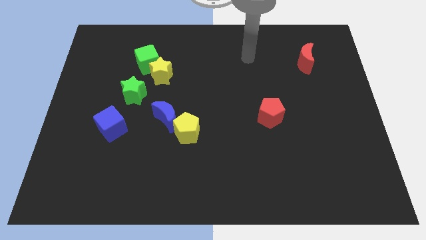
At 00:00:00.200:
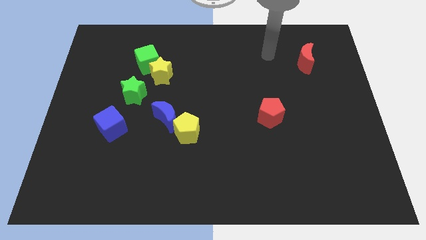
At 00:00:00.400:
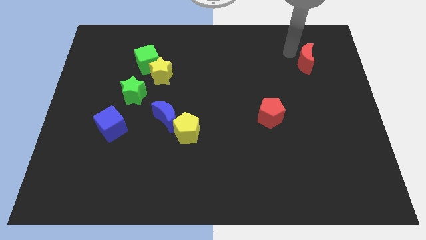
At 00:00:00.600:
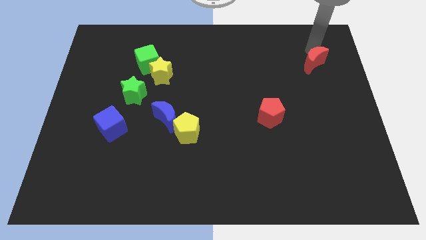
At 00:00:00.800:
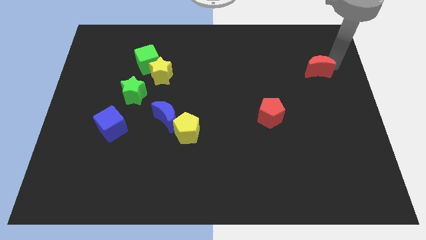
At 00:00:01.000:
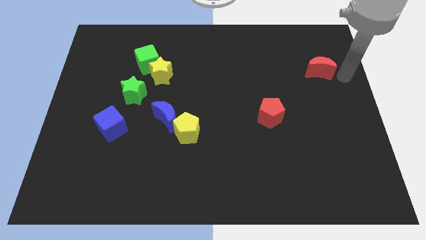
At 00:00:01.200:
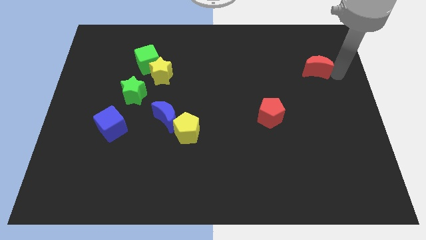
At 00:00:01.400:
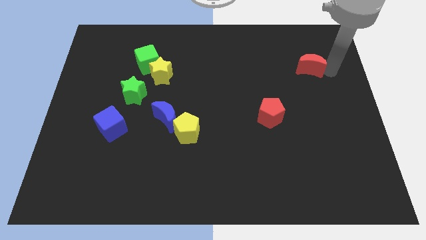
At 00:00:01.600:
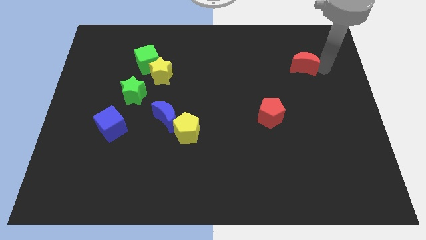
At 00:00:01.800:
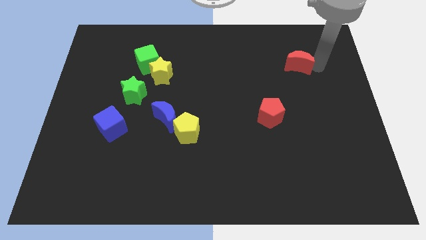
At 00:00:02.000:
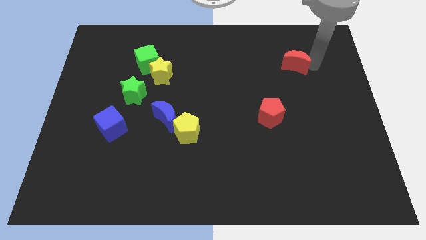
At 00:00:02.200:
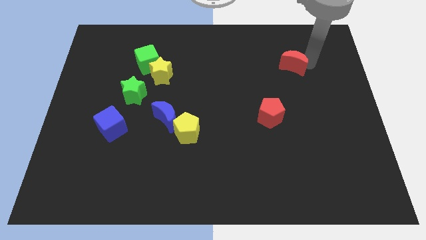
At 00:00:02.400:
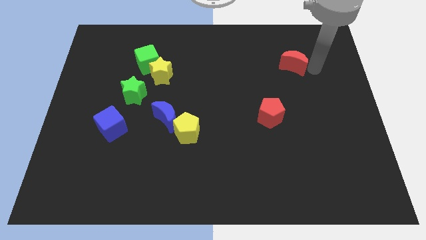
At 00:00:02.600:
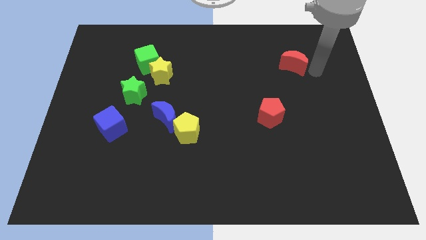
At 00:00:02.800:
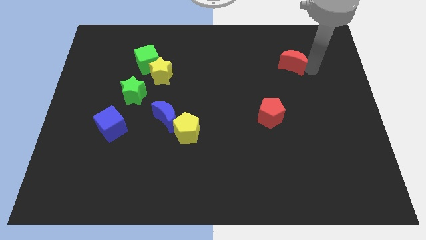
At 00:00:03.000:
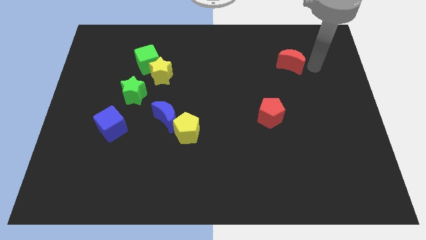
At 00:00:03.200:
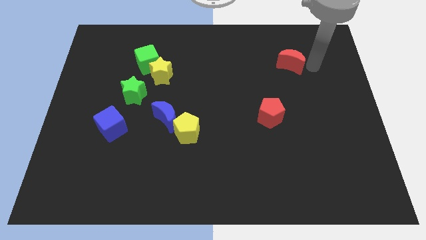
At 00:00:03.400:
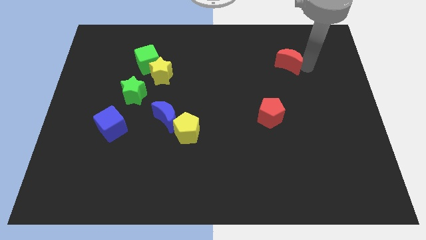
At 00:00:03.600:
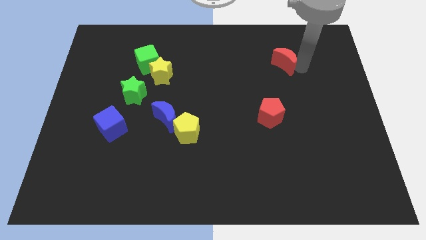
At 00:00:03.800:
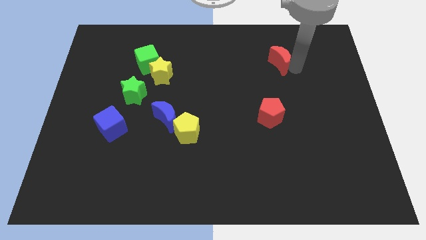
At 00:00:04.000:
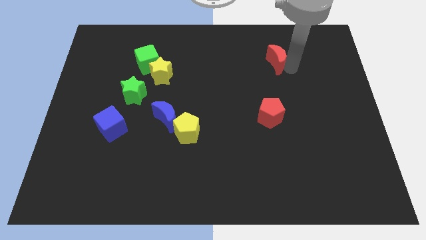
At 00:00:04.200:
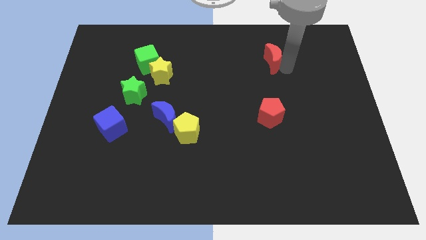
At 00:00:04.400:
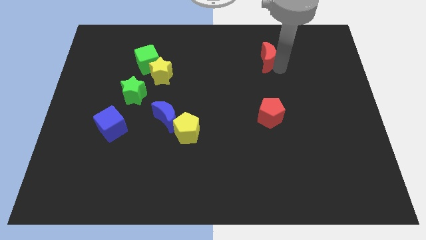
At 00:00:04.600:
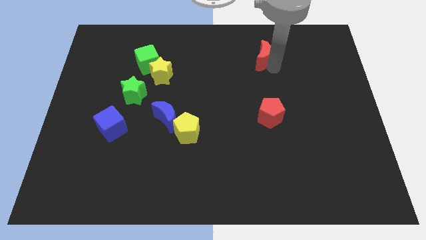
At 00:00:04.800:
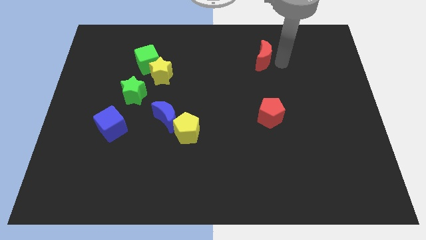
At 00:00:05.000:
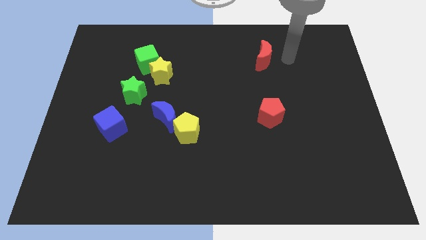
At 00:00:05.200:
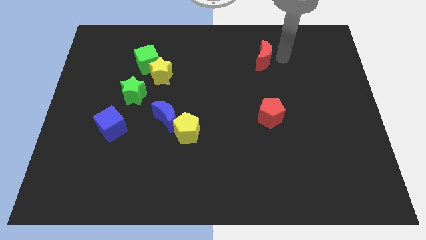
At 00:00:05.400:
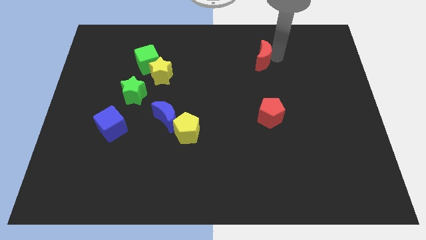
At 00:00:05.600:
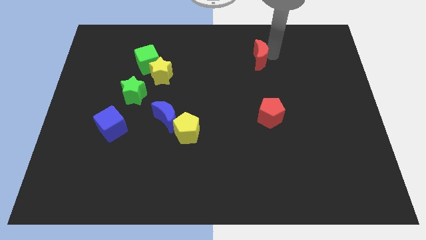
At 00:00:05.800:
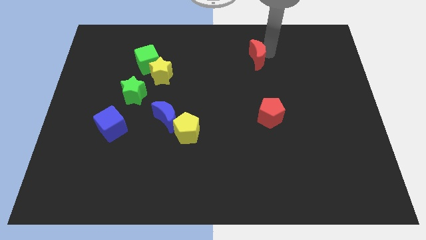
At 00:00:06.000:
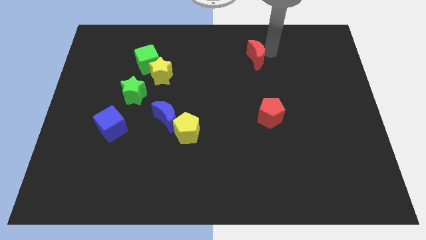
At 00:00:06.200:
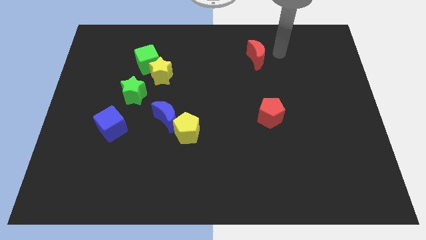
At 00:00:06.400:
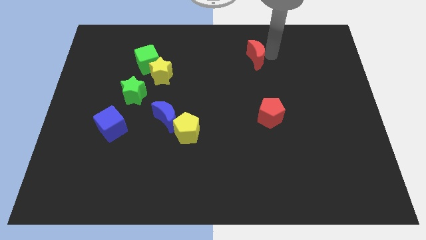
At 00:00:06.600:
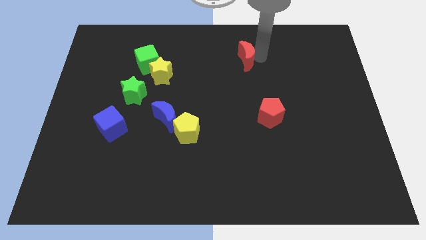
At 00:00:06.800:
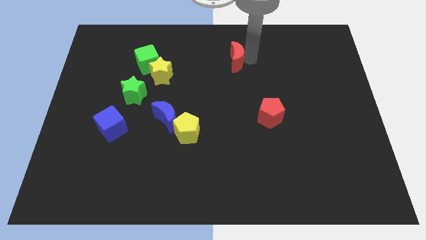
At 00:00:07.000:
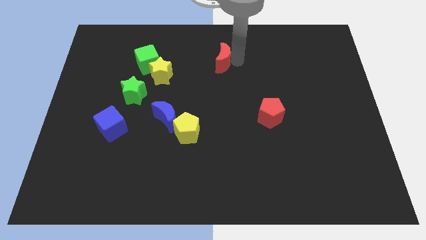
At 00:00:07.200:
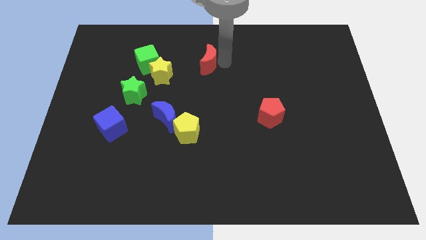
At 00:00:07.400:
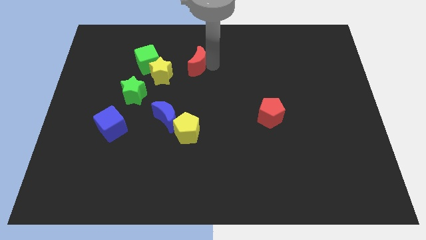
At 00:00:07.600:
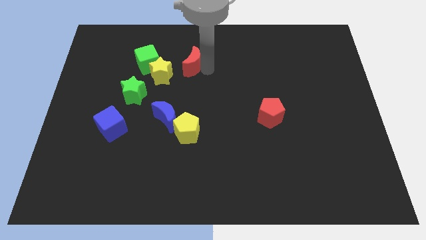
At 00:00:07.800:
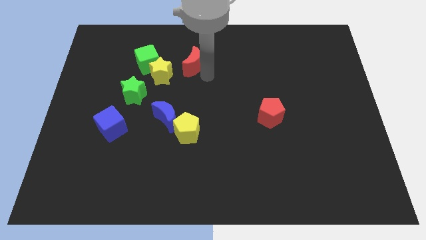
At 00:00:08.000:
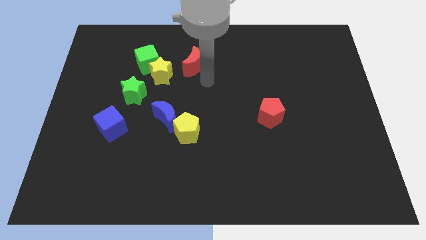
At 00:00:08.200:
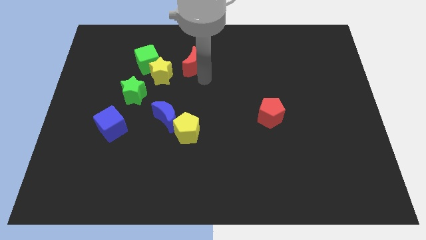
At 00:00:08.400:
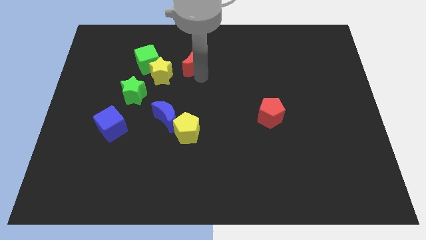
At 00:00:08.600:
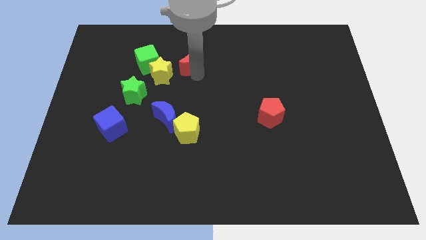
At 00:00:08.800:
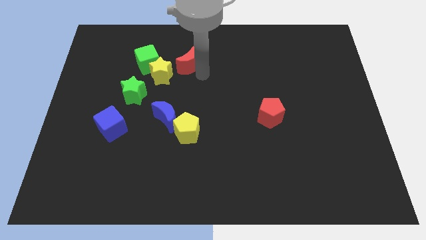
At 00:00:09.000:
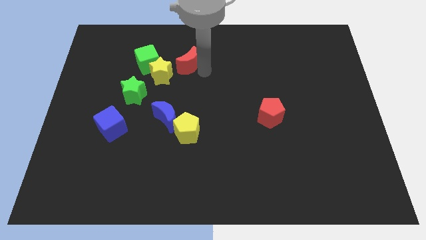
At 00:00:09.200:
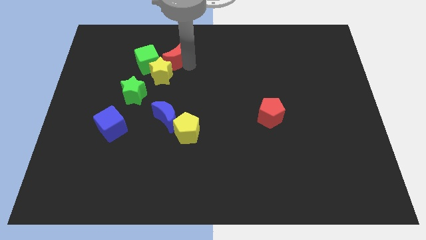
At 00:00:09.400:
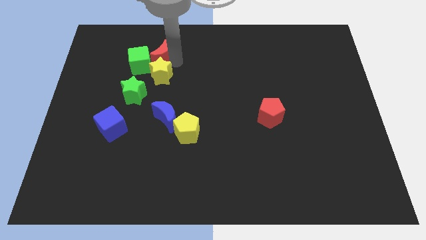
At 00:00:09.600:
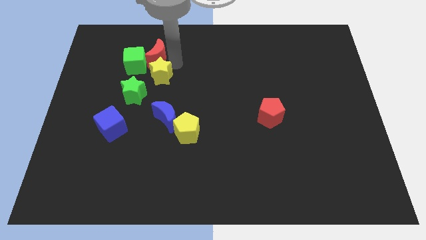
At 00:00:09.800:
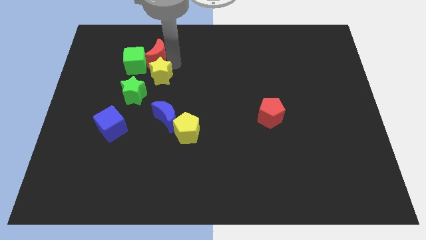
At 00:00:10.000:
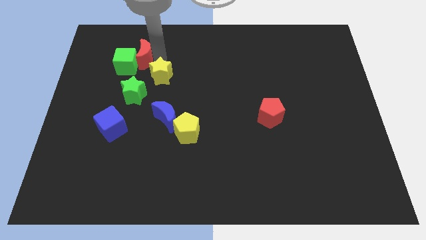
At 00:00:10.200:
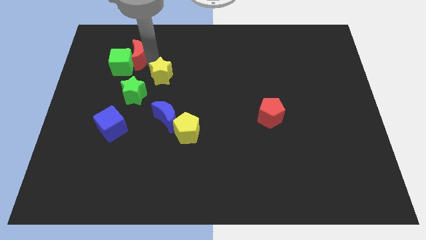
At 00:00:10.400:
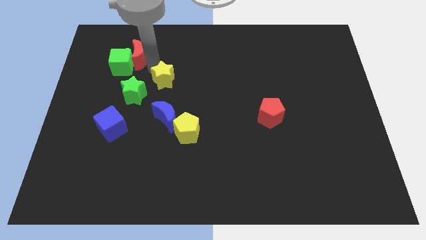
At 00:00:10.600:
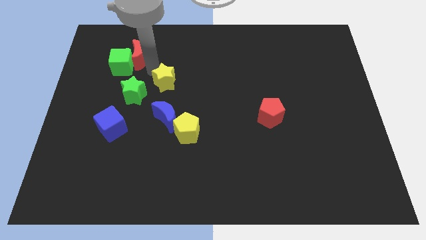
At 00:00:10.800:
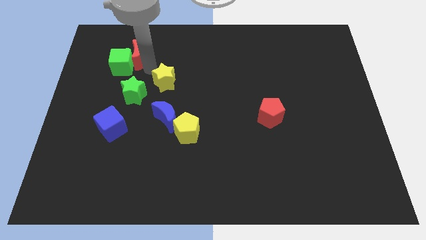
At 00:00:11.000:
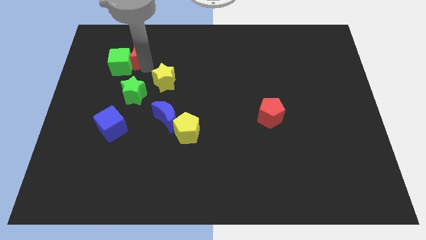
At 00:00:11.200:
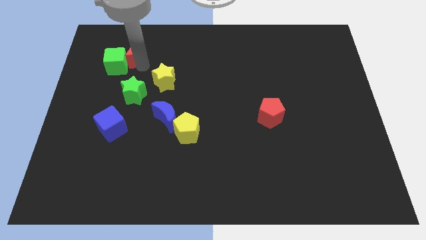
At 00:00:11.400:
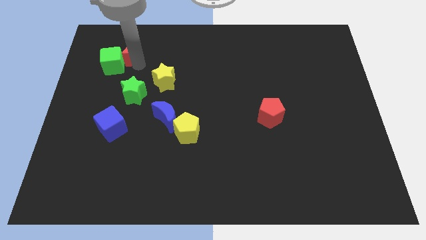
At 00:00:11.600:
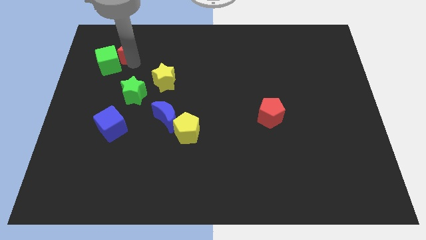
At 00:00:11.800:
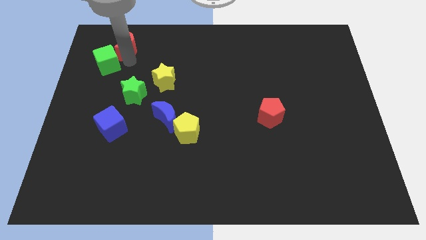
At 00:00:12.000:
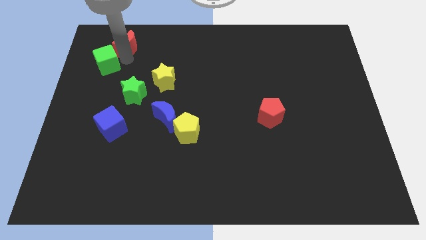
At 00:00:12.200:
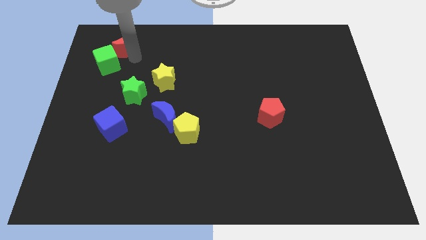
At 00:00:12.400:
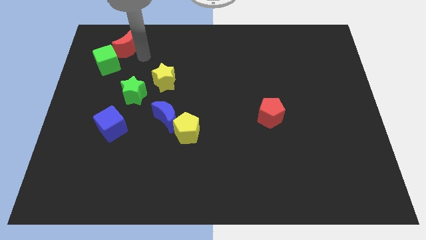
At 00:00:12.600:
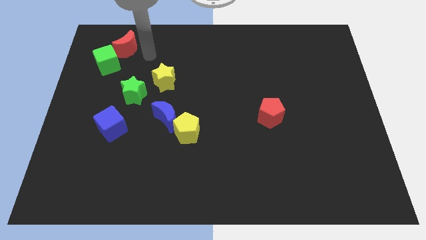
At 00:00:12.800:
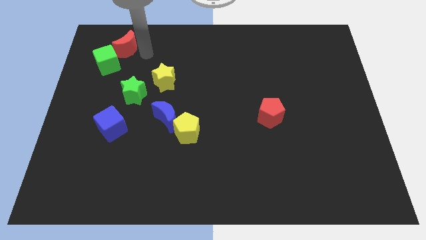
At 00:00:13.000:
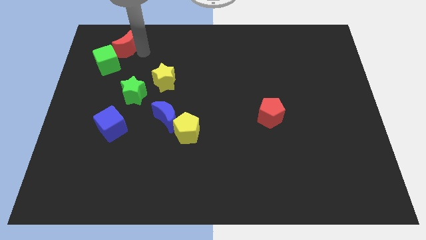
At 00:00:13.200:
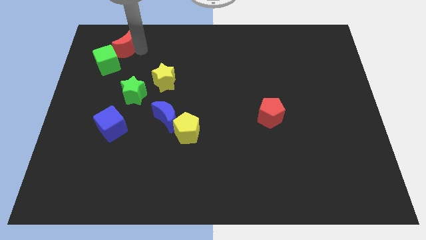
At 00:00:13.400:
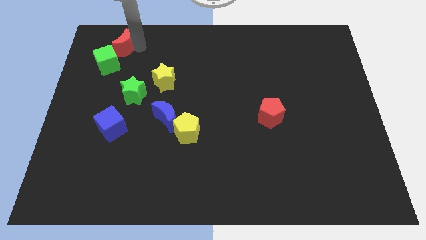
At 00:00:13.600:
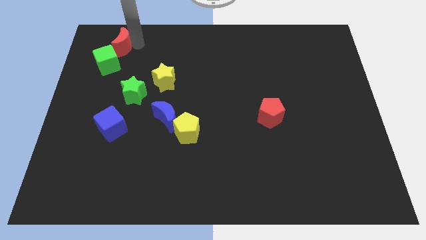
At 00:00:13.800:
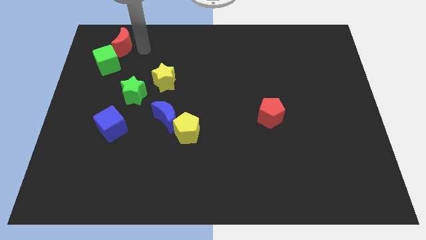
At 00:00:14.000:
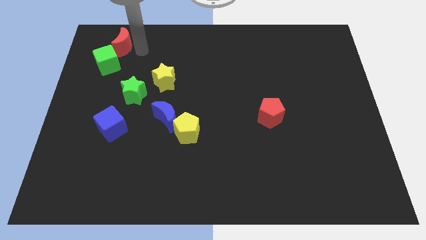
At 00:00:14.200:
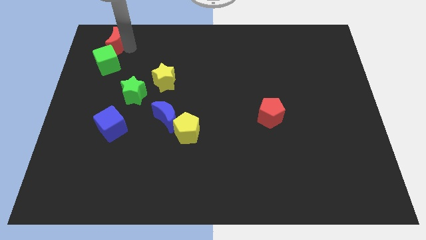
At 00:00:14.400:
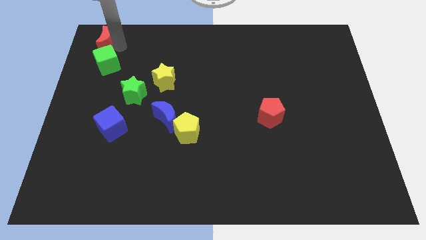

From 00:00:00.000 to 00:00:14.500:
put the red moon to the top left of the board

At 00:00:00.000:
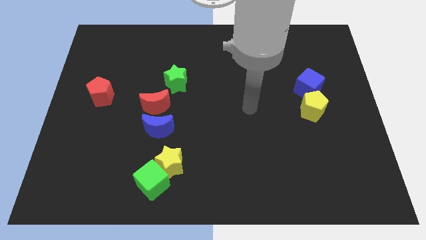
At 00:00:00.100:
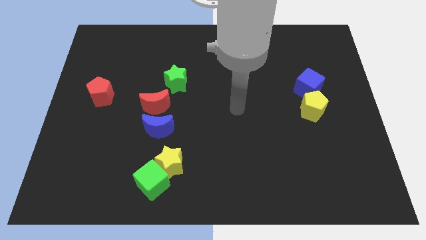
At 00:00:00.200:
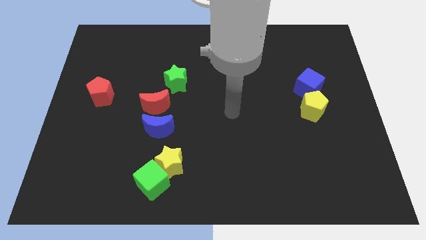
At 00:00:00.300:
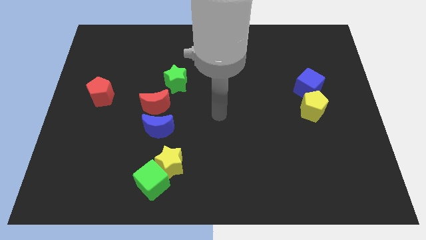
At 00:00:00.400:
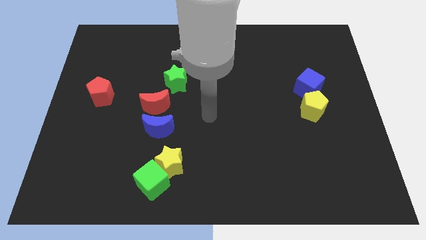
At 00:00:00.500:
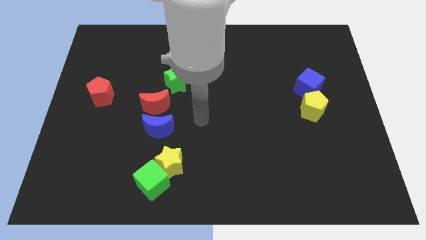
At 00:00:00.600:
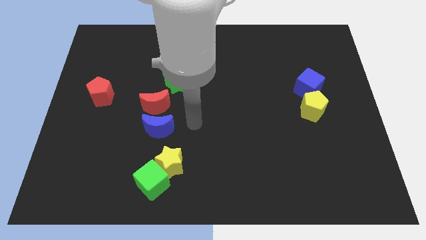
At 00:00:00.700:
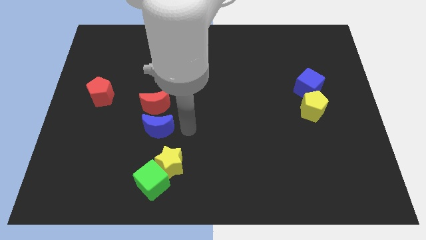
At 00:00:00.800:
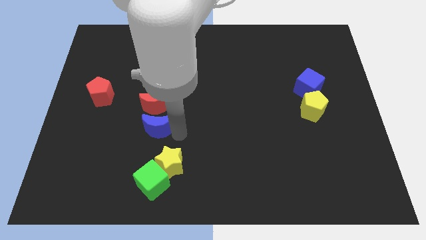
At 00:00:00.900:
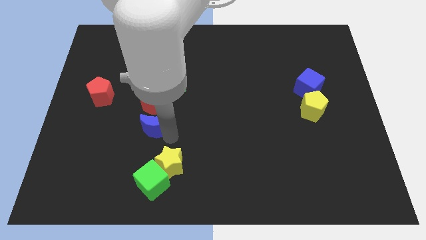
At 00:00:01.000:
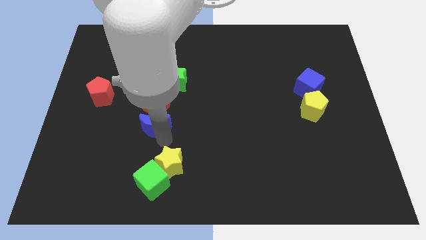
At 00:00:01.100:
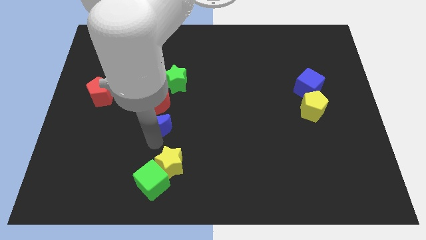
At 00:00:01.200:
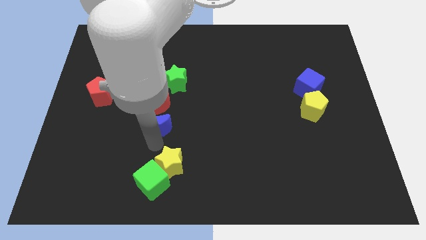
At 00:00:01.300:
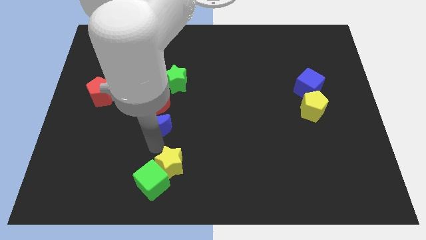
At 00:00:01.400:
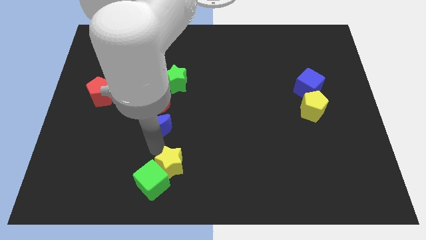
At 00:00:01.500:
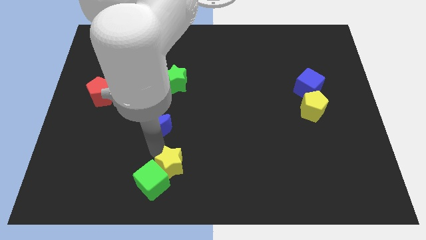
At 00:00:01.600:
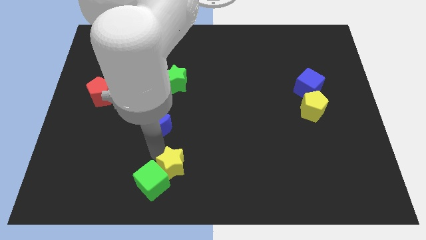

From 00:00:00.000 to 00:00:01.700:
push the yellow star to the bottom side
